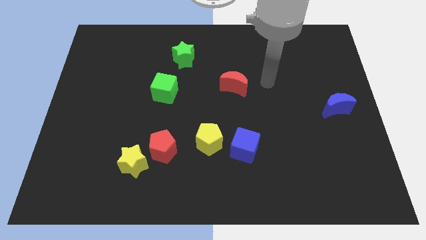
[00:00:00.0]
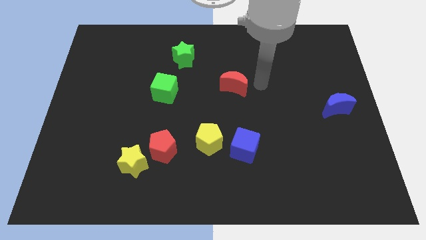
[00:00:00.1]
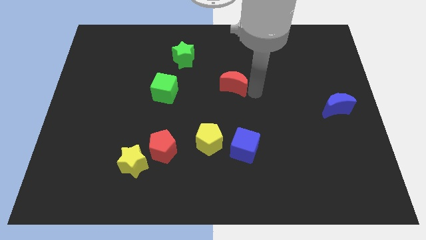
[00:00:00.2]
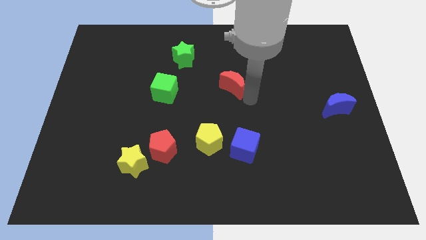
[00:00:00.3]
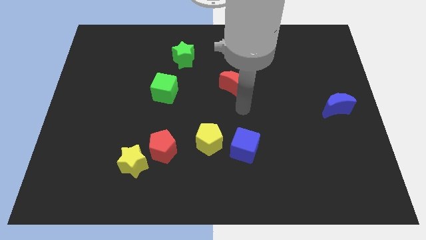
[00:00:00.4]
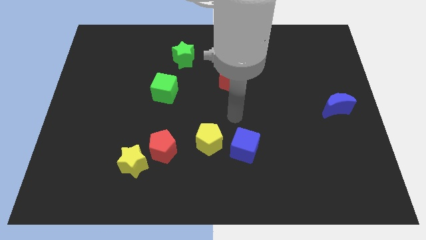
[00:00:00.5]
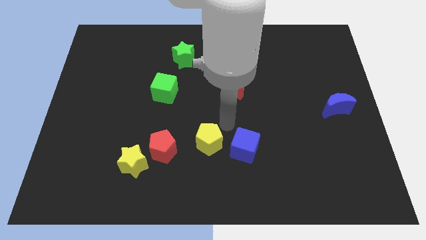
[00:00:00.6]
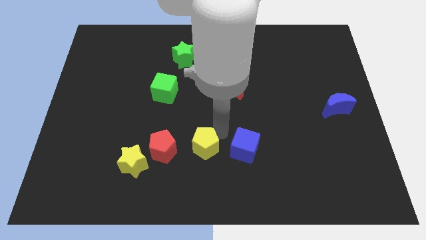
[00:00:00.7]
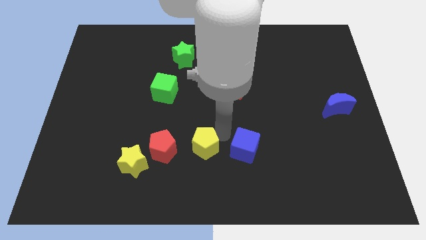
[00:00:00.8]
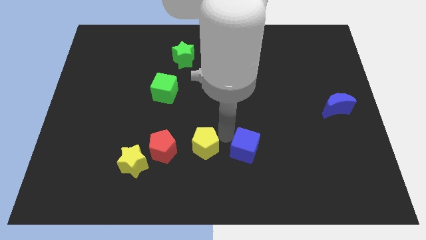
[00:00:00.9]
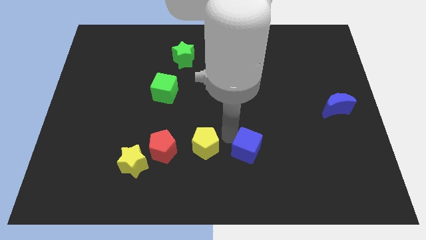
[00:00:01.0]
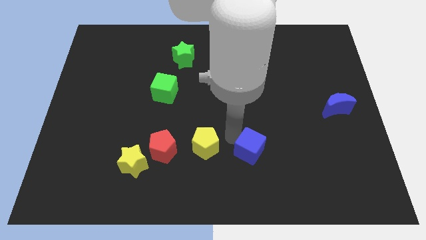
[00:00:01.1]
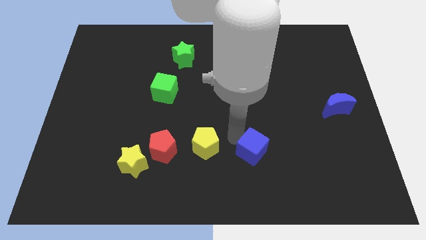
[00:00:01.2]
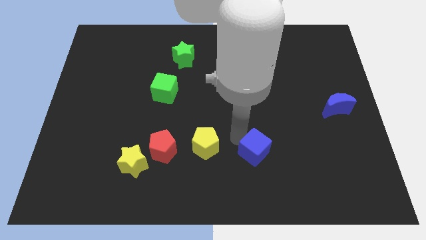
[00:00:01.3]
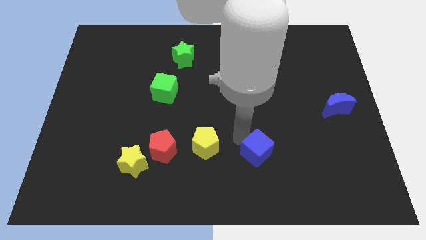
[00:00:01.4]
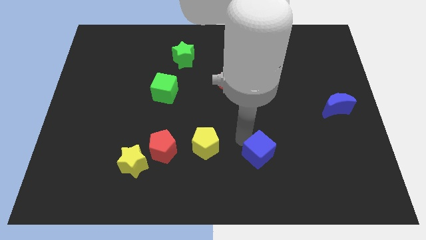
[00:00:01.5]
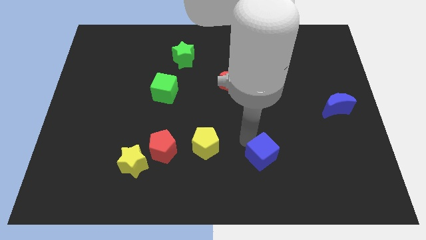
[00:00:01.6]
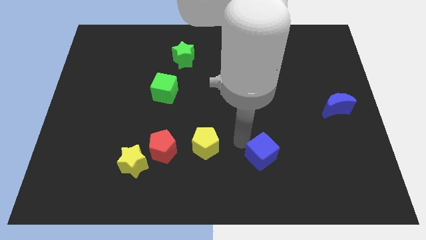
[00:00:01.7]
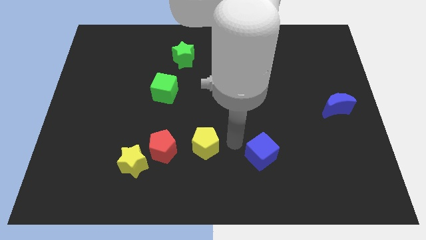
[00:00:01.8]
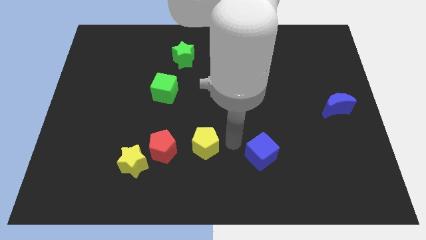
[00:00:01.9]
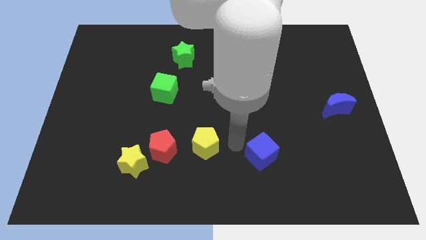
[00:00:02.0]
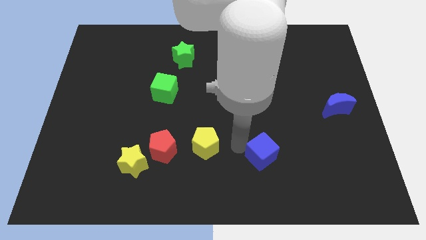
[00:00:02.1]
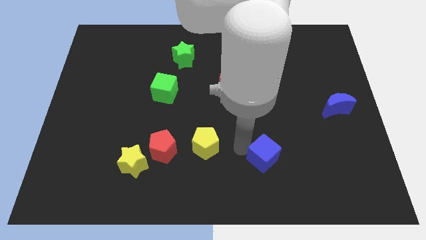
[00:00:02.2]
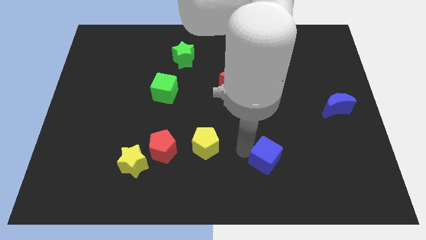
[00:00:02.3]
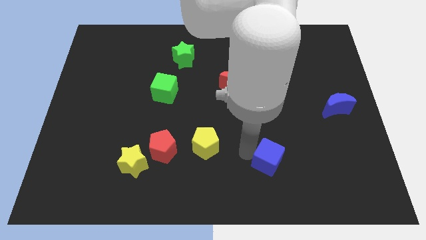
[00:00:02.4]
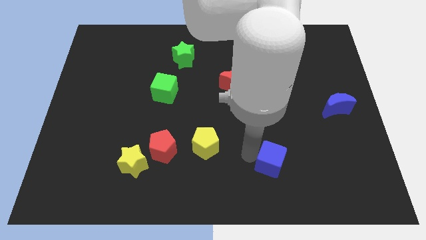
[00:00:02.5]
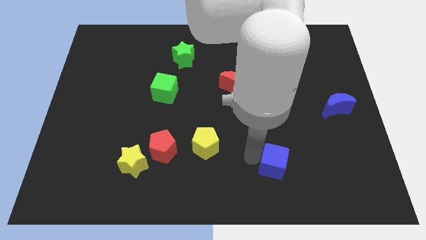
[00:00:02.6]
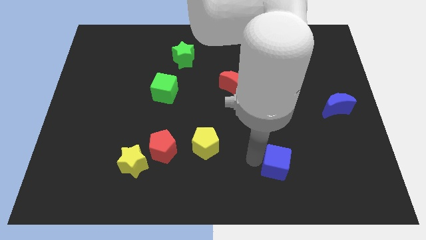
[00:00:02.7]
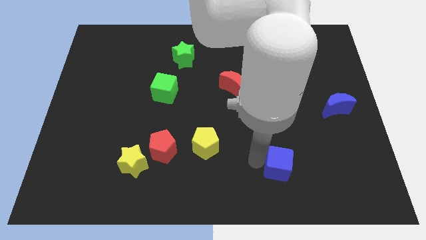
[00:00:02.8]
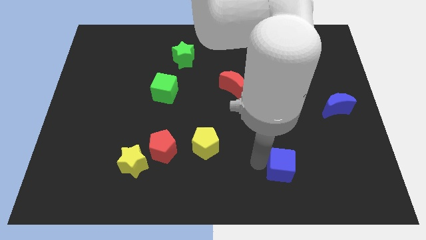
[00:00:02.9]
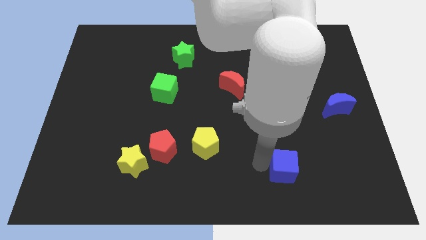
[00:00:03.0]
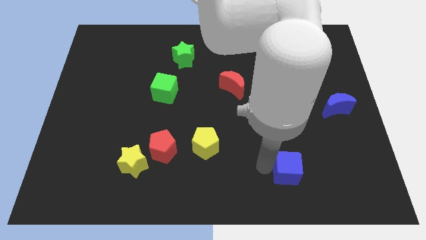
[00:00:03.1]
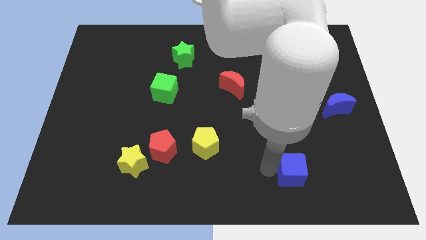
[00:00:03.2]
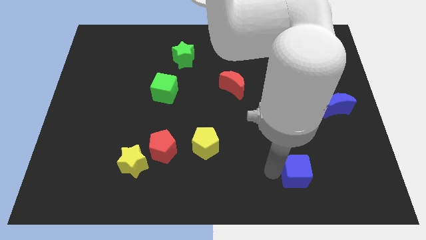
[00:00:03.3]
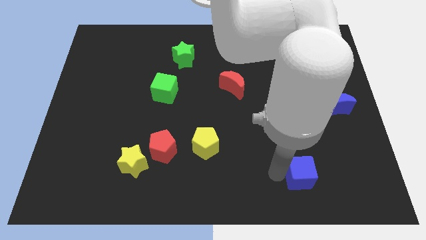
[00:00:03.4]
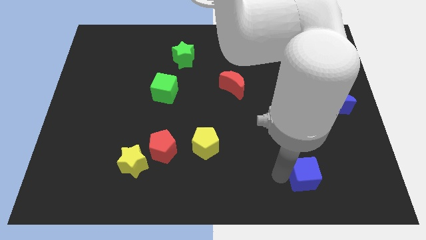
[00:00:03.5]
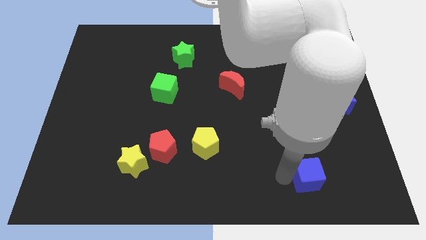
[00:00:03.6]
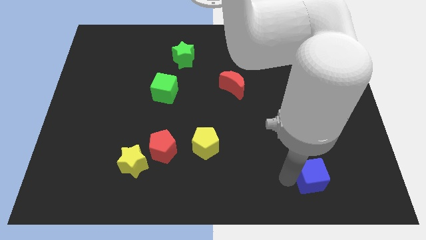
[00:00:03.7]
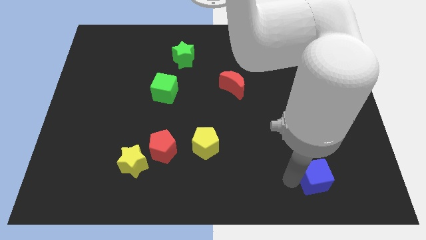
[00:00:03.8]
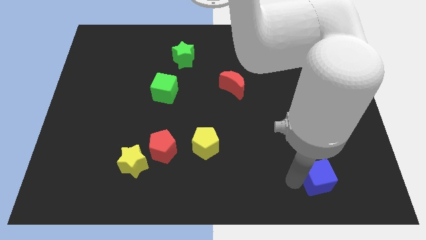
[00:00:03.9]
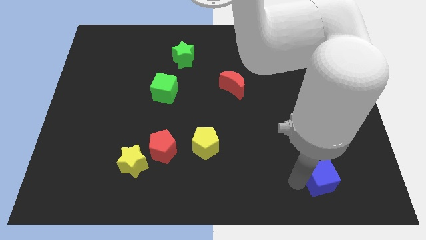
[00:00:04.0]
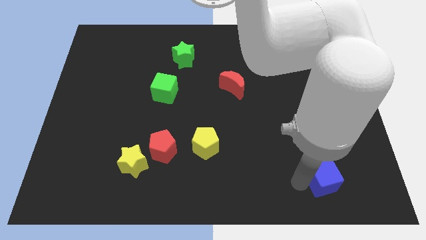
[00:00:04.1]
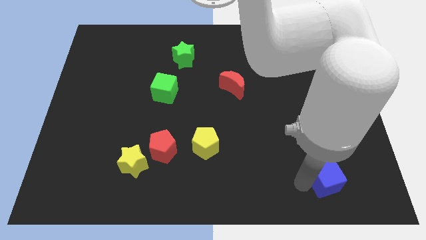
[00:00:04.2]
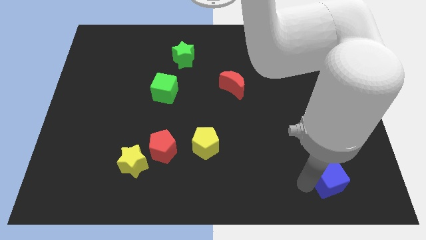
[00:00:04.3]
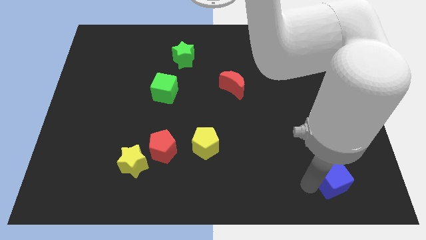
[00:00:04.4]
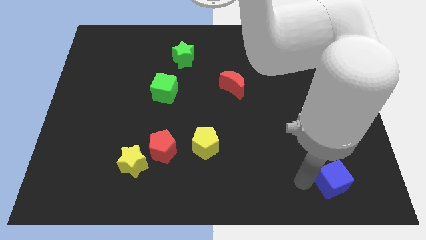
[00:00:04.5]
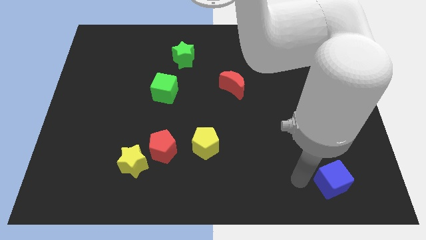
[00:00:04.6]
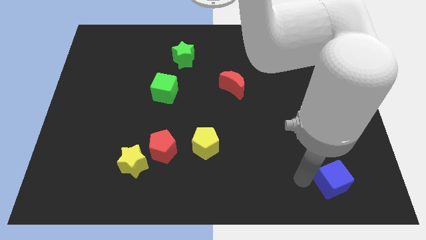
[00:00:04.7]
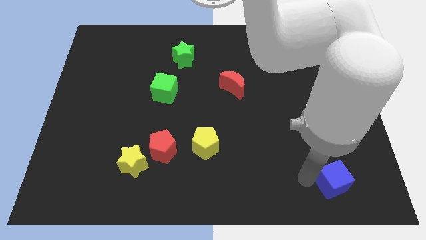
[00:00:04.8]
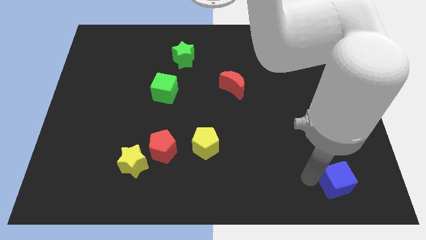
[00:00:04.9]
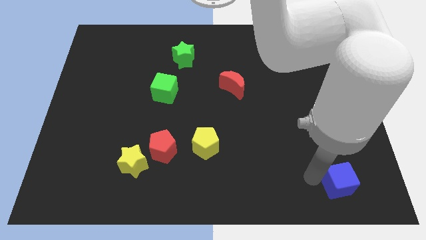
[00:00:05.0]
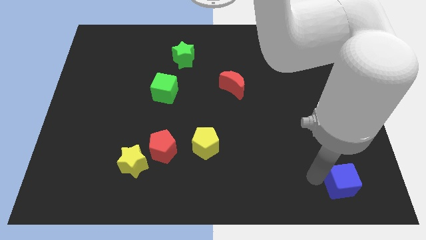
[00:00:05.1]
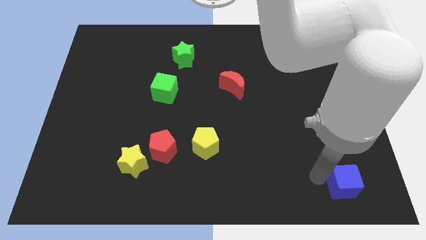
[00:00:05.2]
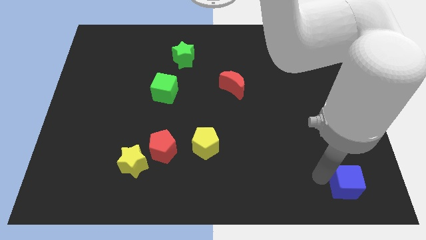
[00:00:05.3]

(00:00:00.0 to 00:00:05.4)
move the blue cube to the bottom right
